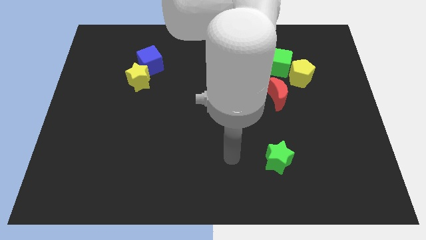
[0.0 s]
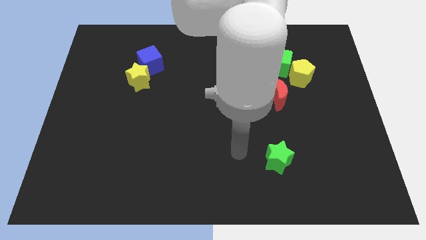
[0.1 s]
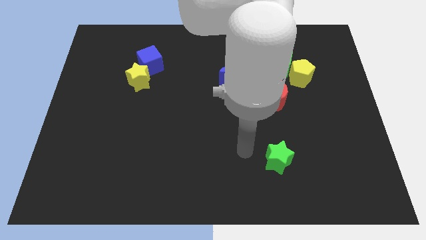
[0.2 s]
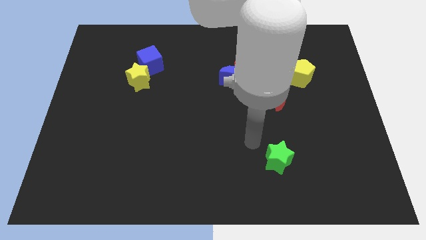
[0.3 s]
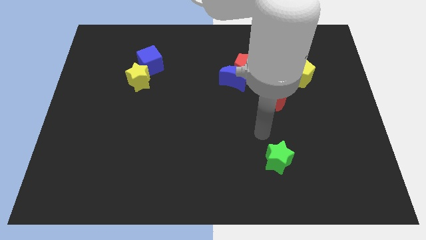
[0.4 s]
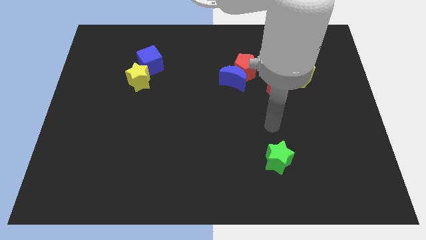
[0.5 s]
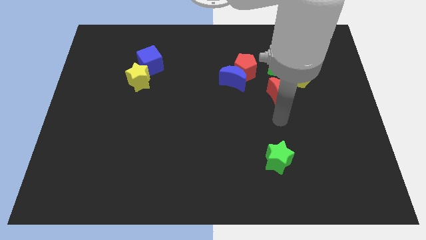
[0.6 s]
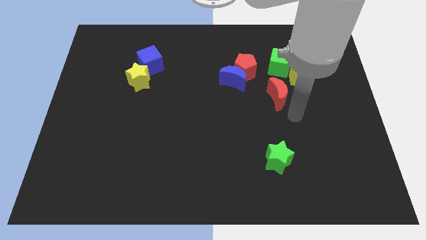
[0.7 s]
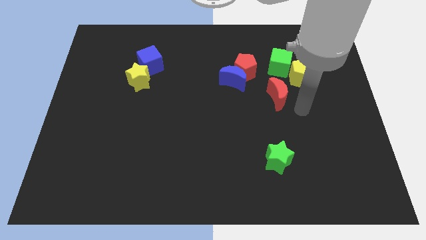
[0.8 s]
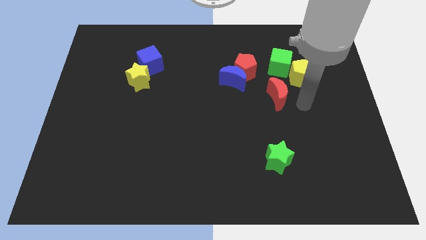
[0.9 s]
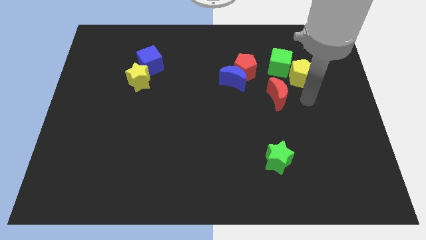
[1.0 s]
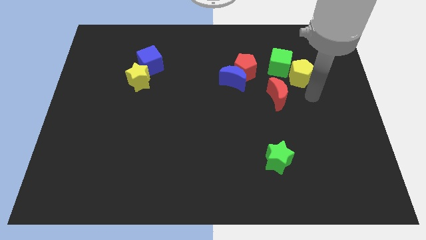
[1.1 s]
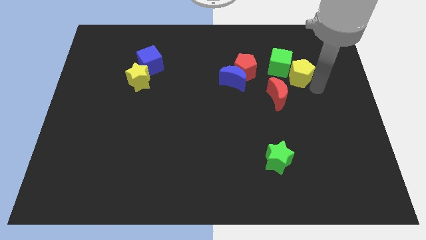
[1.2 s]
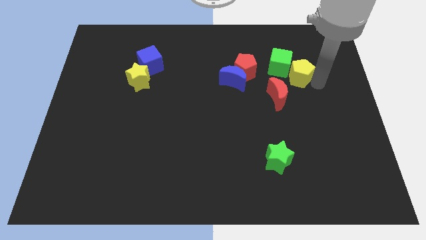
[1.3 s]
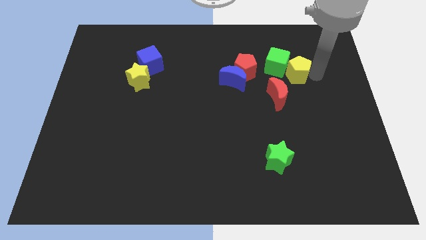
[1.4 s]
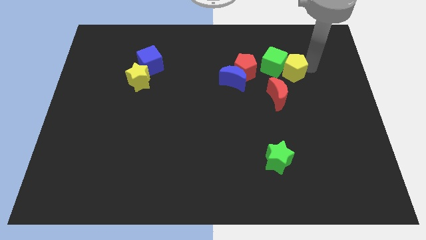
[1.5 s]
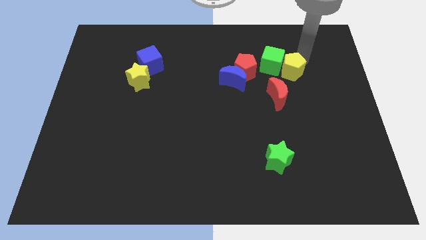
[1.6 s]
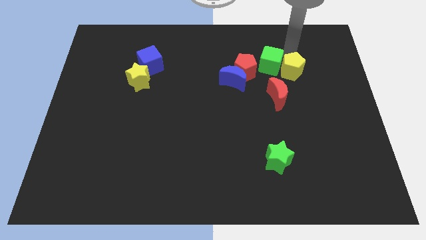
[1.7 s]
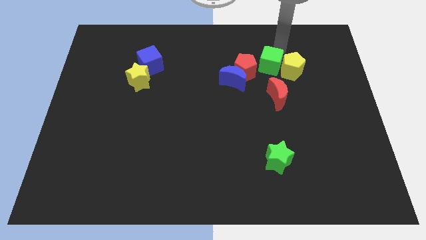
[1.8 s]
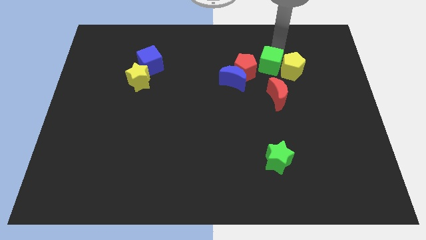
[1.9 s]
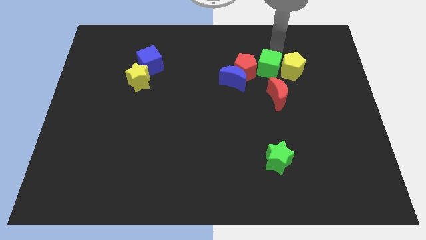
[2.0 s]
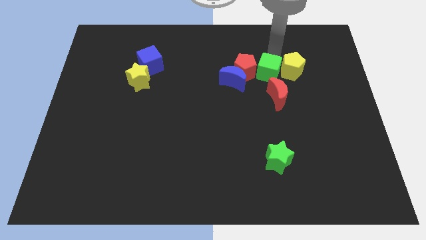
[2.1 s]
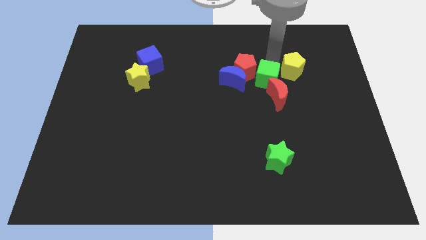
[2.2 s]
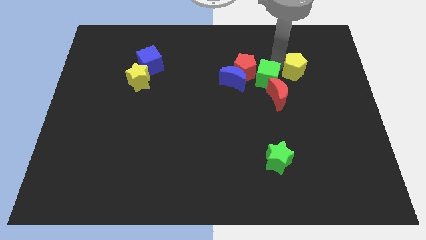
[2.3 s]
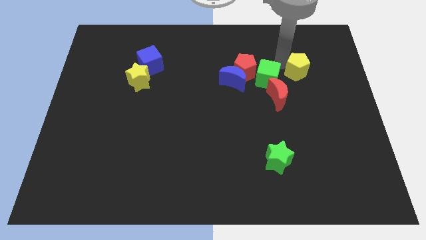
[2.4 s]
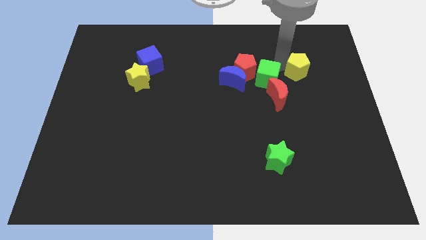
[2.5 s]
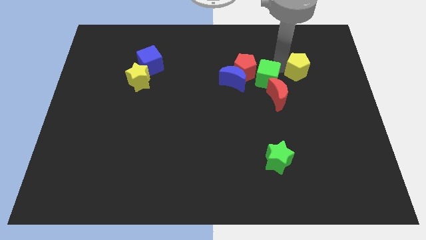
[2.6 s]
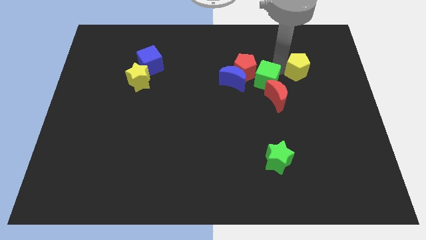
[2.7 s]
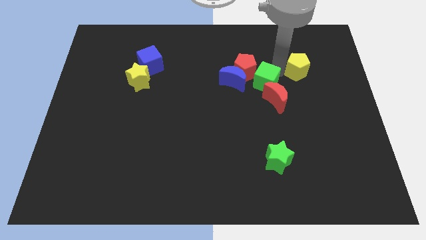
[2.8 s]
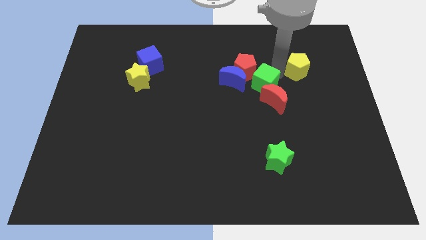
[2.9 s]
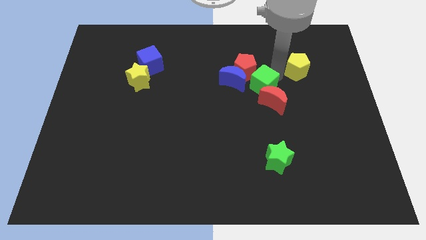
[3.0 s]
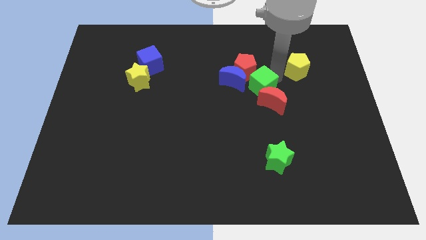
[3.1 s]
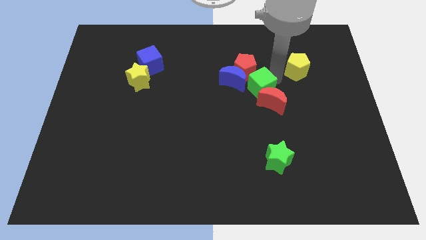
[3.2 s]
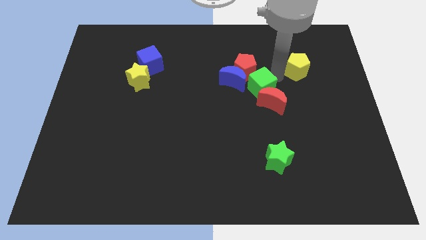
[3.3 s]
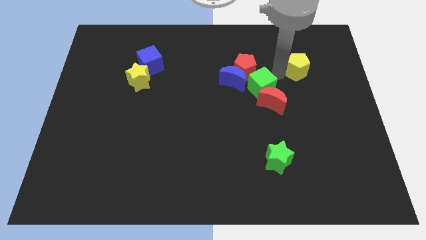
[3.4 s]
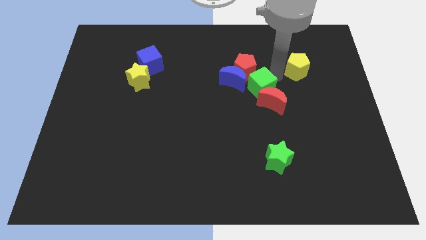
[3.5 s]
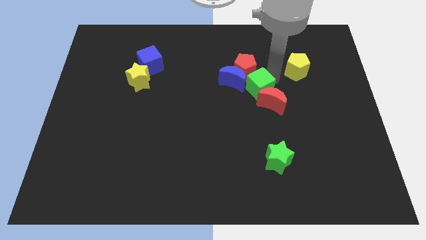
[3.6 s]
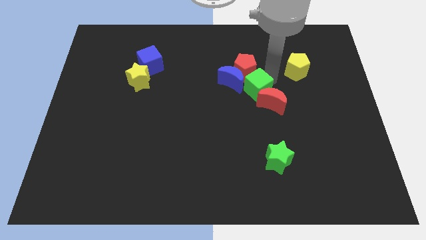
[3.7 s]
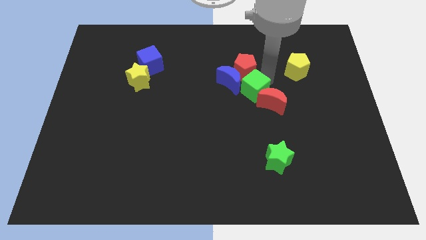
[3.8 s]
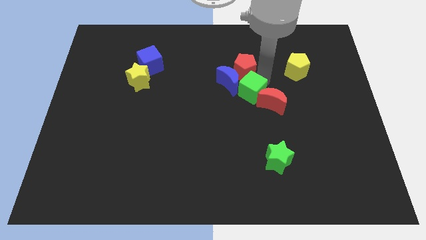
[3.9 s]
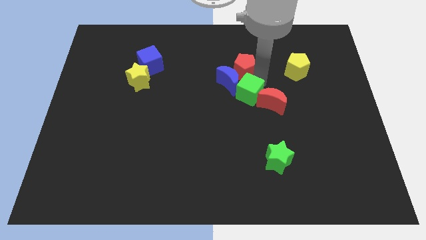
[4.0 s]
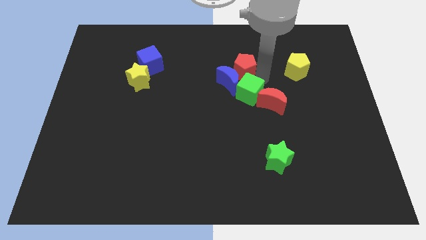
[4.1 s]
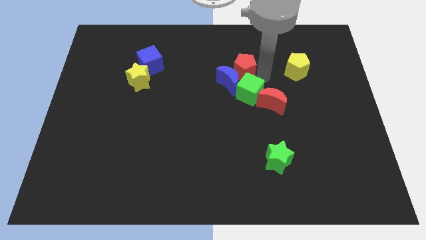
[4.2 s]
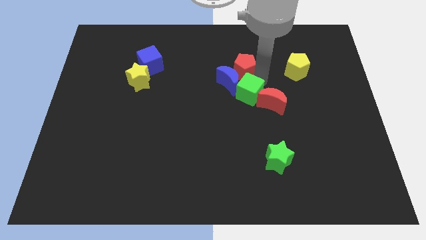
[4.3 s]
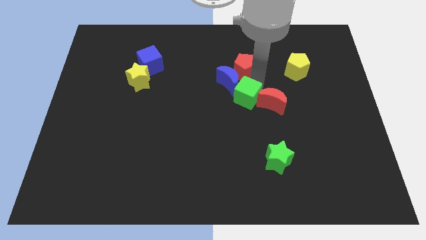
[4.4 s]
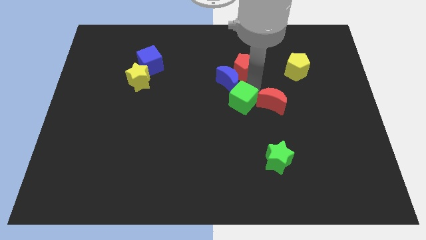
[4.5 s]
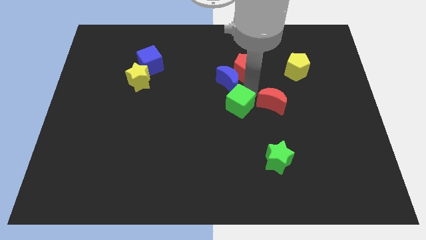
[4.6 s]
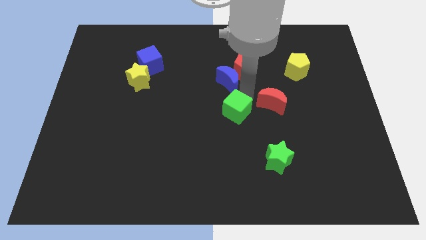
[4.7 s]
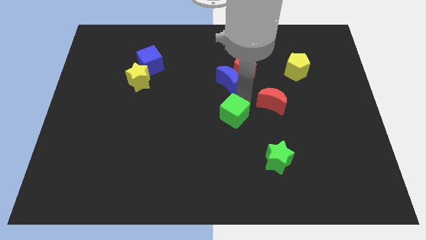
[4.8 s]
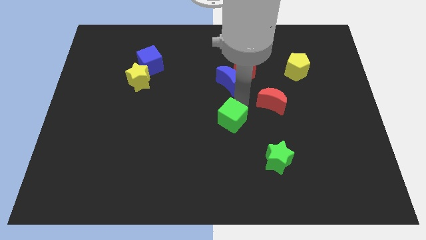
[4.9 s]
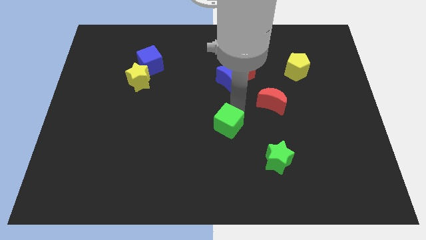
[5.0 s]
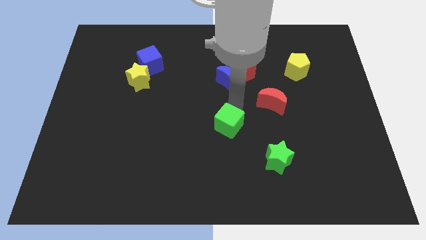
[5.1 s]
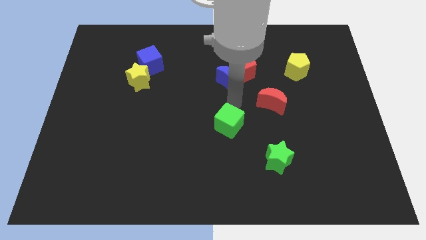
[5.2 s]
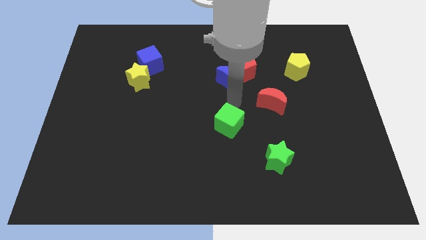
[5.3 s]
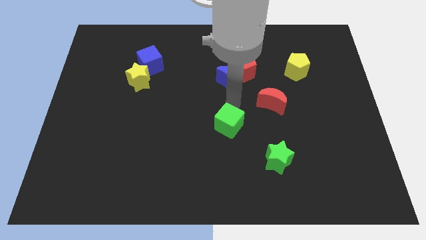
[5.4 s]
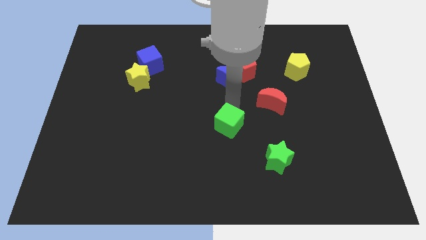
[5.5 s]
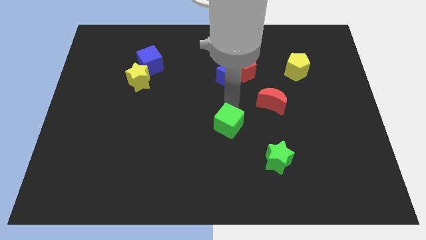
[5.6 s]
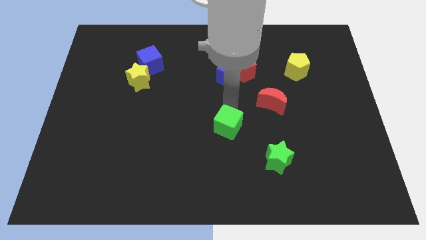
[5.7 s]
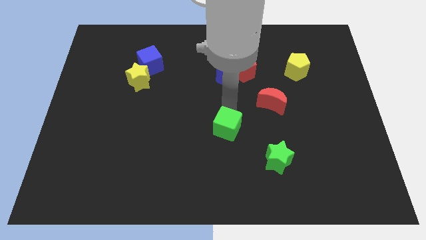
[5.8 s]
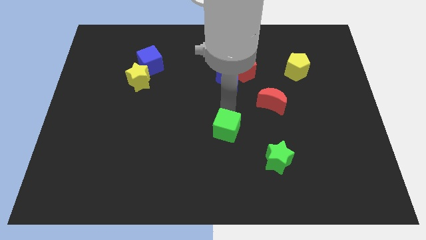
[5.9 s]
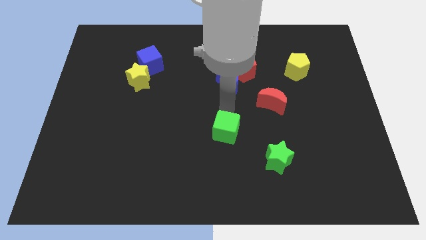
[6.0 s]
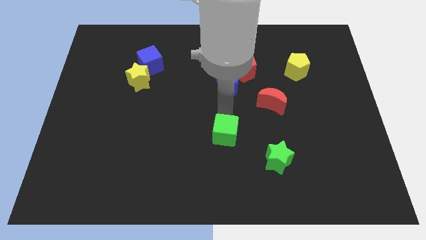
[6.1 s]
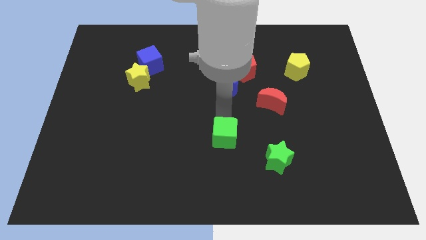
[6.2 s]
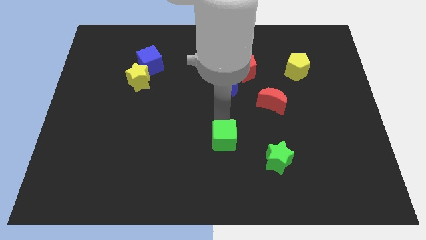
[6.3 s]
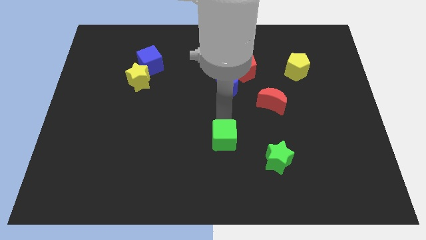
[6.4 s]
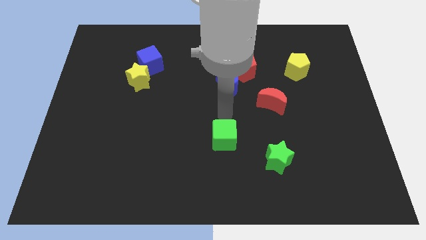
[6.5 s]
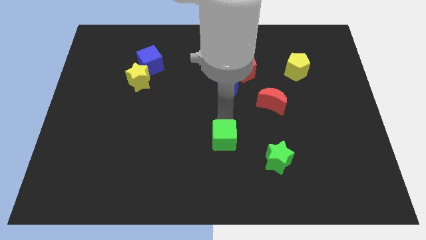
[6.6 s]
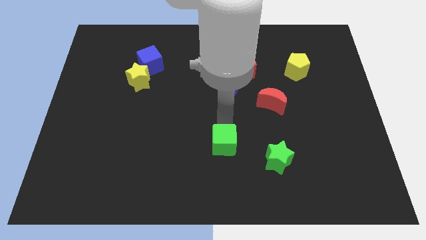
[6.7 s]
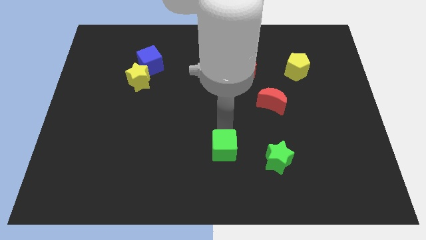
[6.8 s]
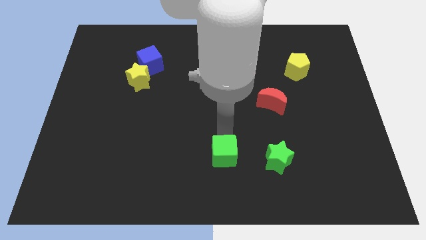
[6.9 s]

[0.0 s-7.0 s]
slide the green cube to the bottom

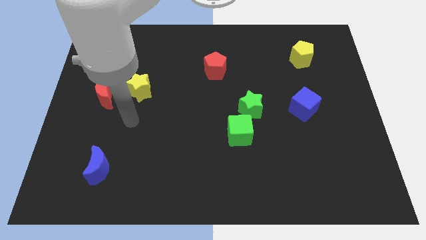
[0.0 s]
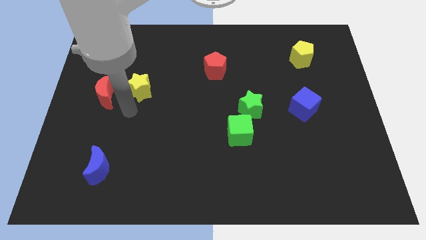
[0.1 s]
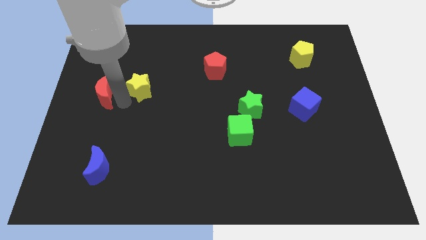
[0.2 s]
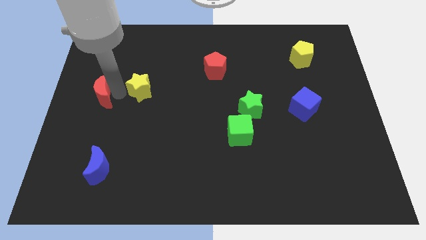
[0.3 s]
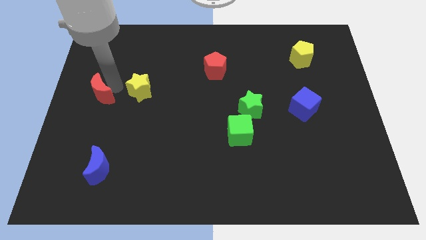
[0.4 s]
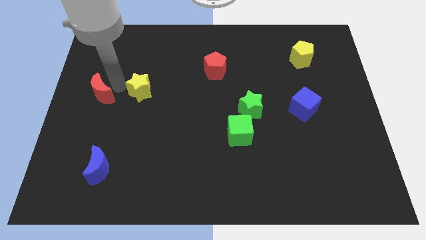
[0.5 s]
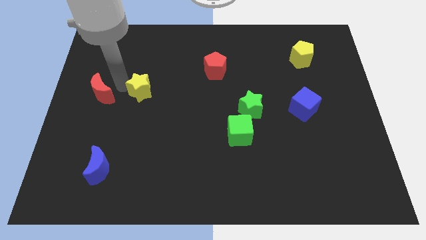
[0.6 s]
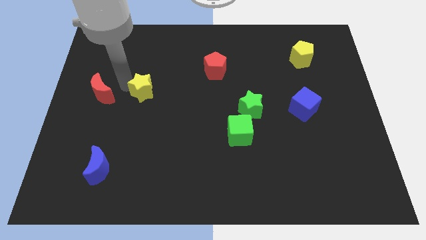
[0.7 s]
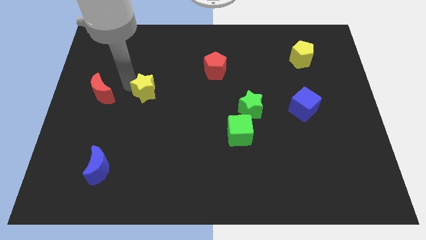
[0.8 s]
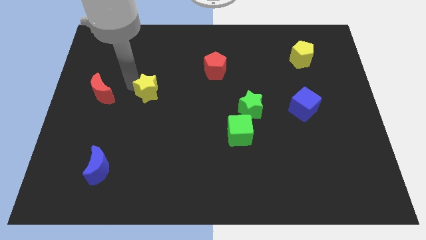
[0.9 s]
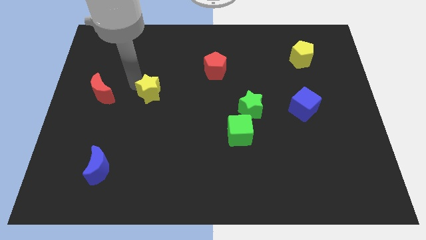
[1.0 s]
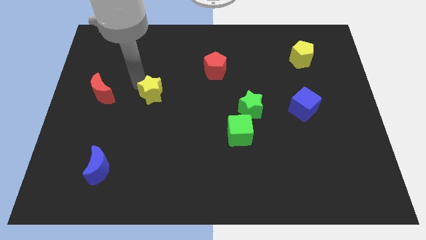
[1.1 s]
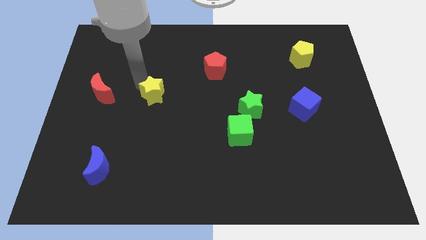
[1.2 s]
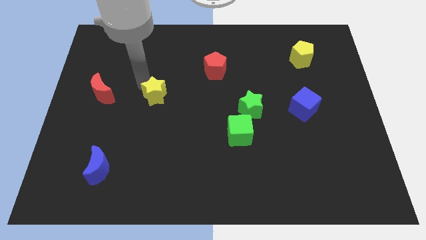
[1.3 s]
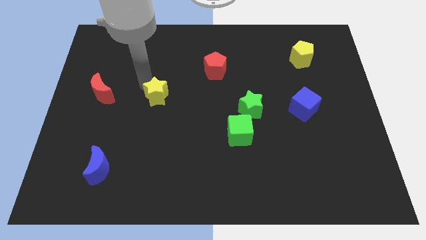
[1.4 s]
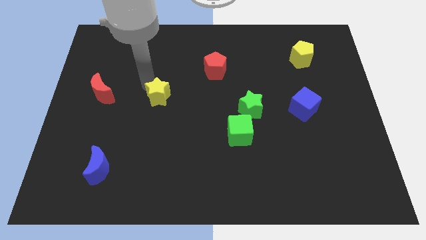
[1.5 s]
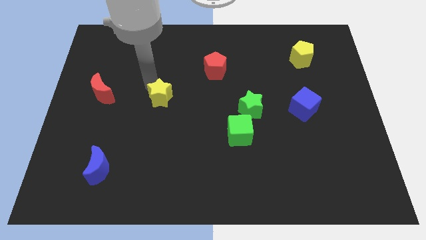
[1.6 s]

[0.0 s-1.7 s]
put the yellow star to the middle of the board
